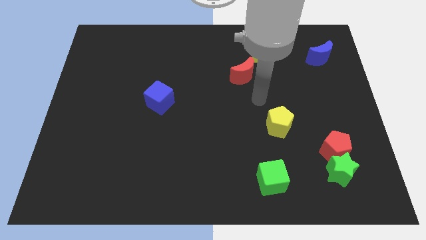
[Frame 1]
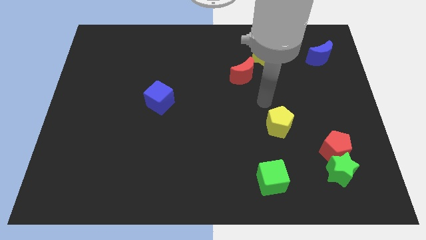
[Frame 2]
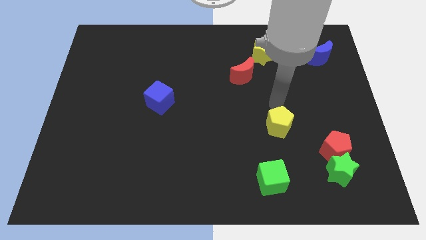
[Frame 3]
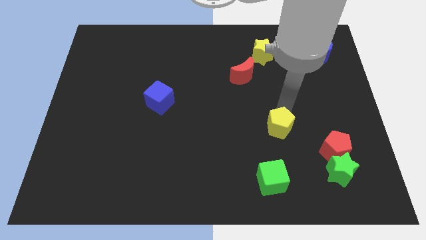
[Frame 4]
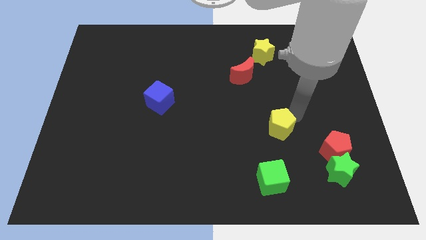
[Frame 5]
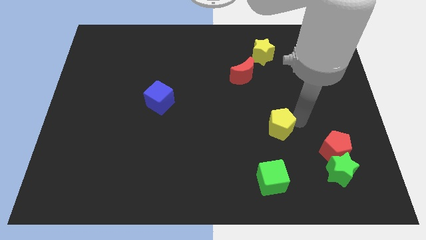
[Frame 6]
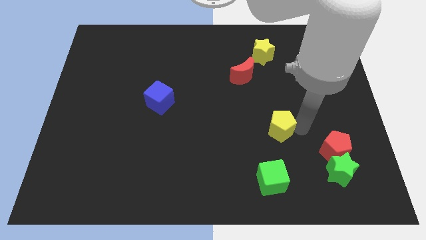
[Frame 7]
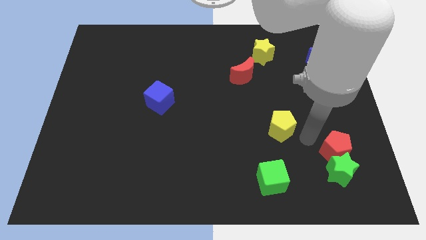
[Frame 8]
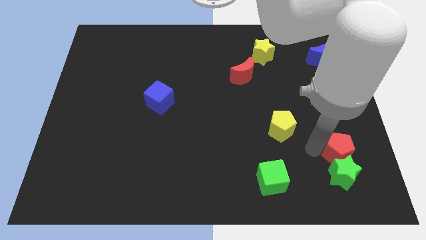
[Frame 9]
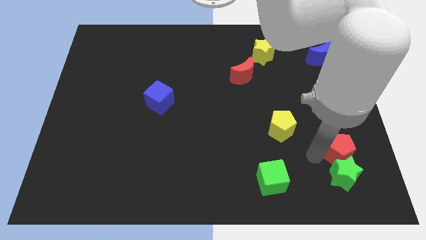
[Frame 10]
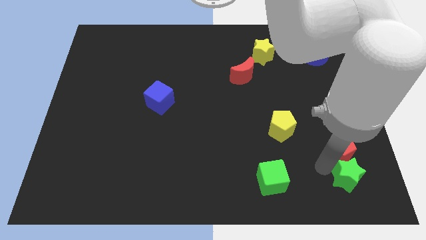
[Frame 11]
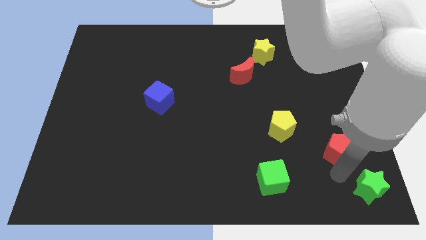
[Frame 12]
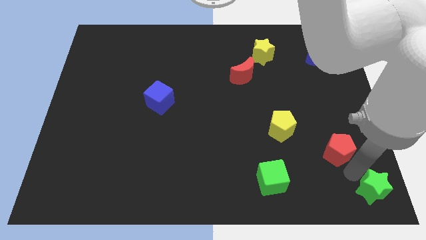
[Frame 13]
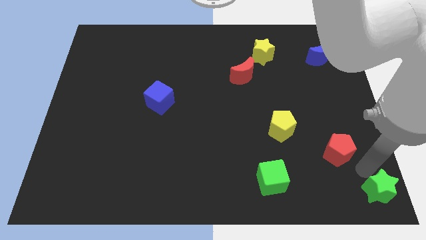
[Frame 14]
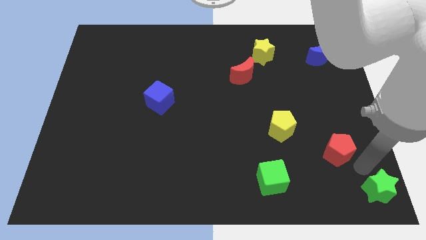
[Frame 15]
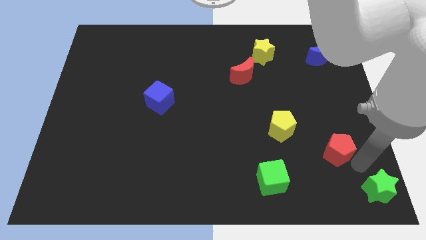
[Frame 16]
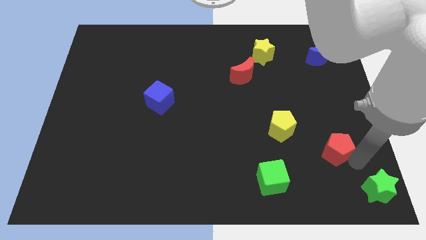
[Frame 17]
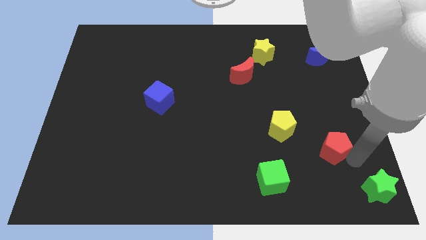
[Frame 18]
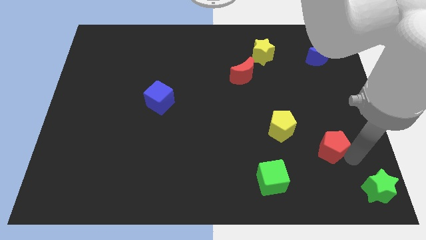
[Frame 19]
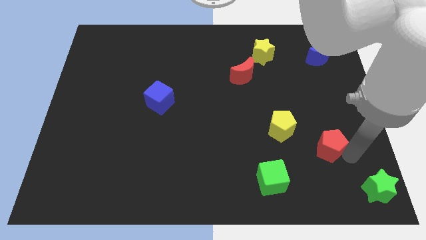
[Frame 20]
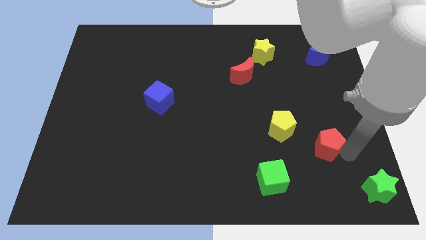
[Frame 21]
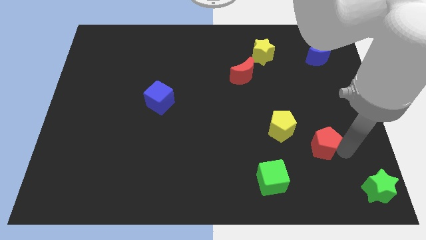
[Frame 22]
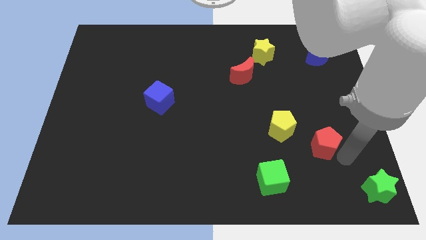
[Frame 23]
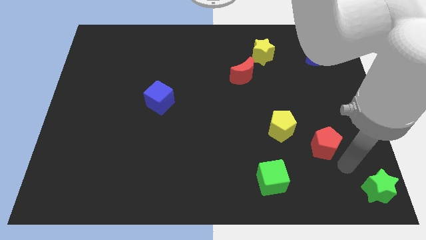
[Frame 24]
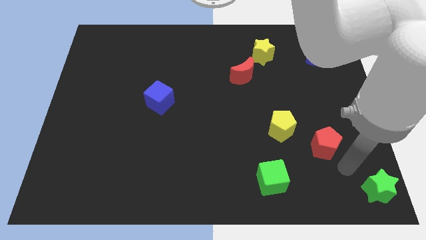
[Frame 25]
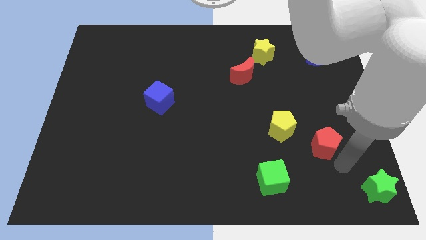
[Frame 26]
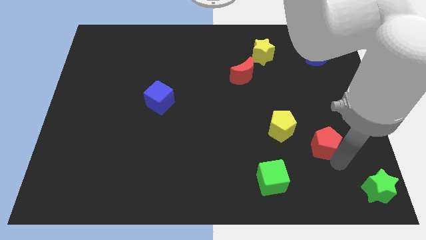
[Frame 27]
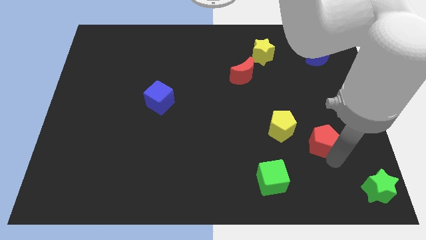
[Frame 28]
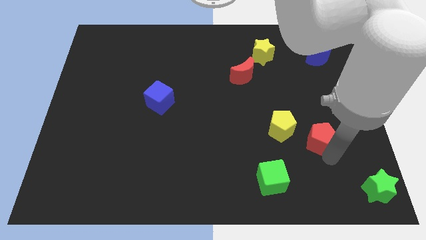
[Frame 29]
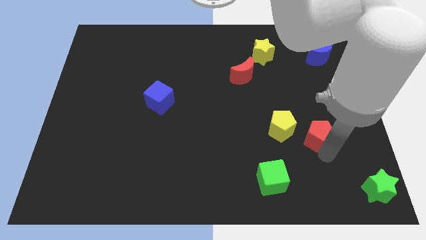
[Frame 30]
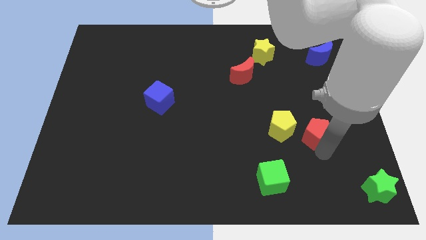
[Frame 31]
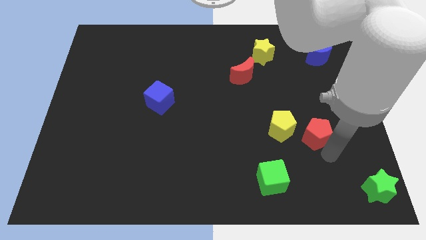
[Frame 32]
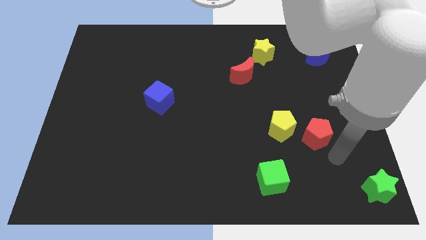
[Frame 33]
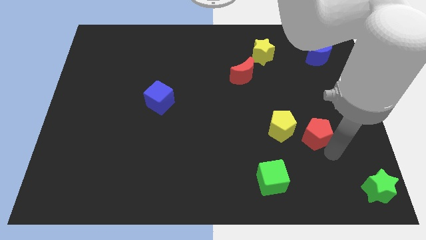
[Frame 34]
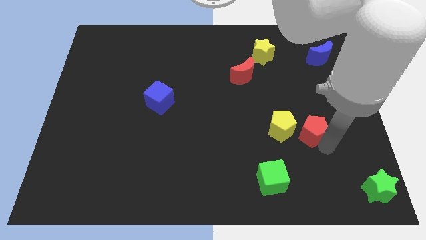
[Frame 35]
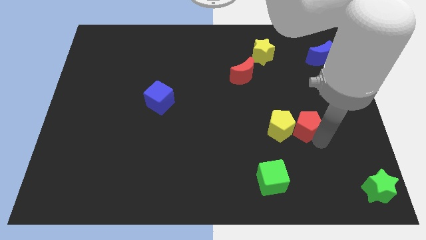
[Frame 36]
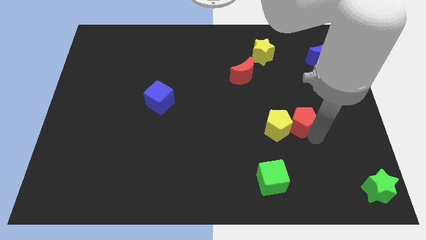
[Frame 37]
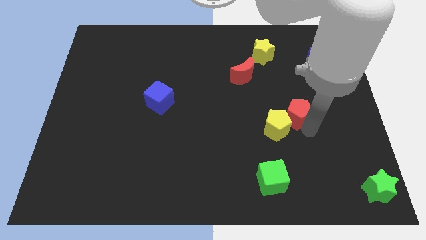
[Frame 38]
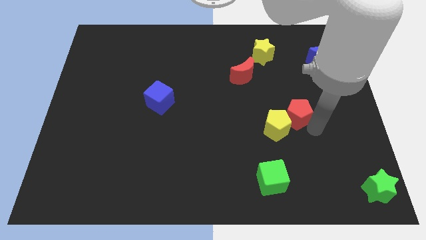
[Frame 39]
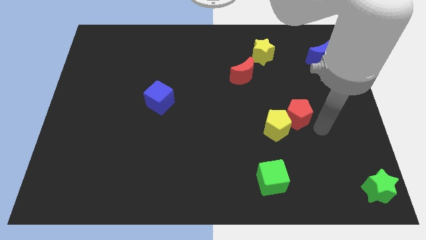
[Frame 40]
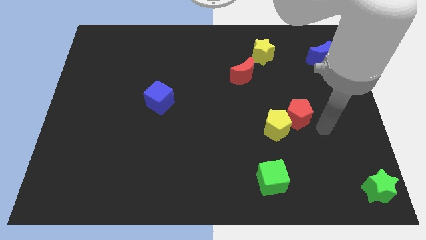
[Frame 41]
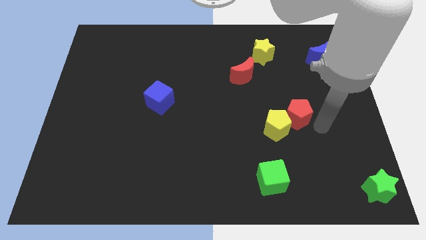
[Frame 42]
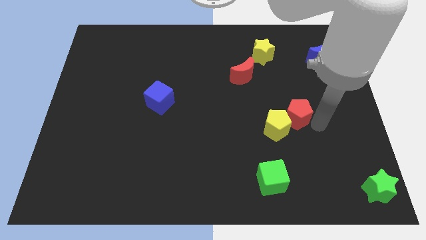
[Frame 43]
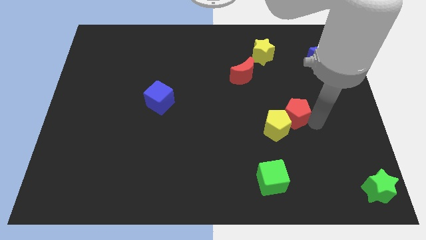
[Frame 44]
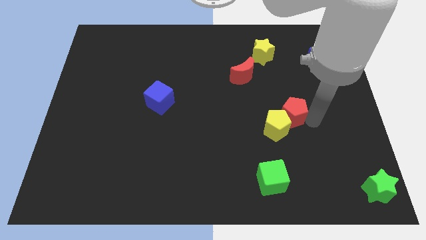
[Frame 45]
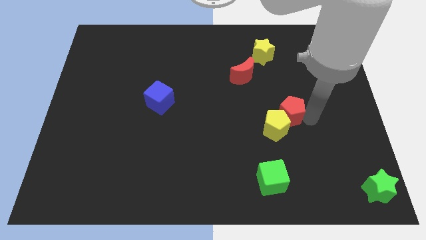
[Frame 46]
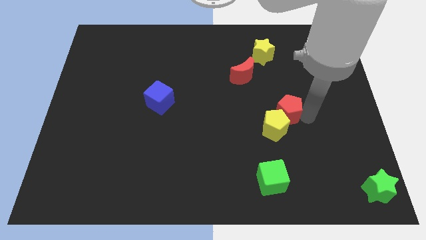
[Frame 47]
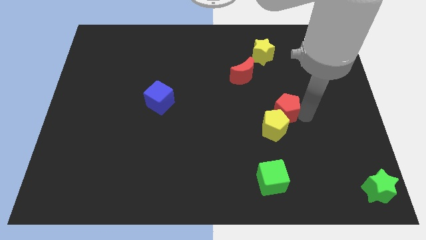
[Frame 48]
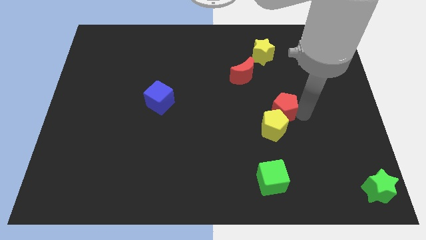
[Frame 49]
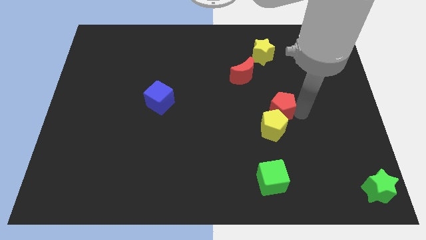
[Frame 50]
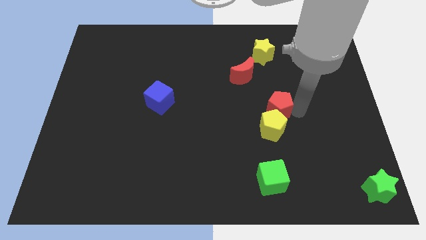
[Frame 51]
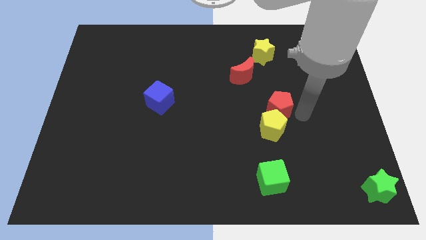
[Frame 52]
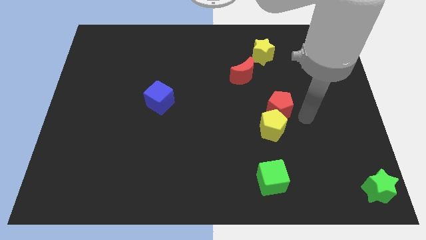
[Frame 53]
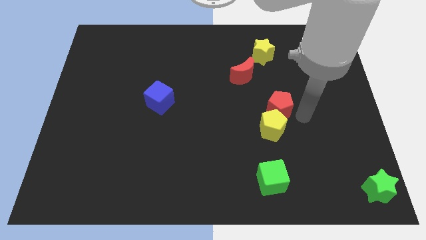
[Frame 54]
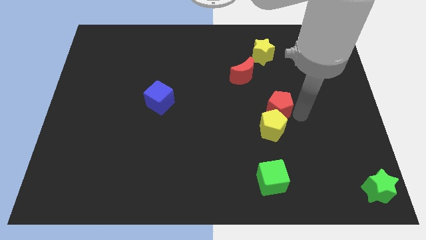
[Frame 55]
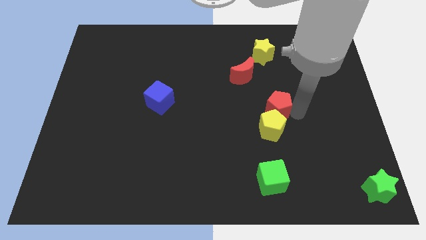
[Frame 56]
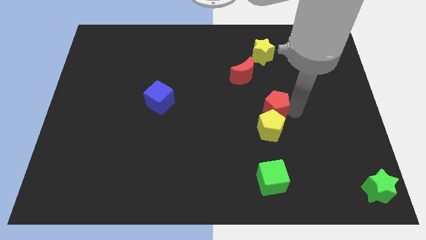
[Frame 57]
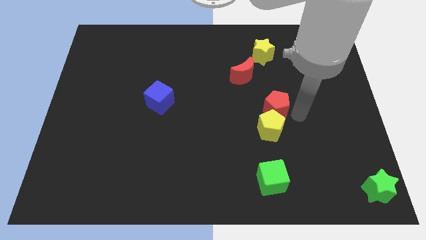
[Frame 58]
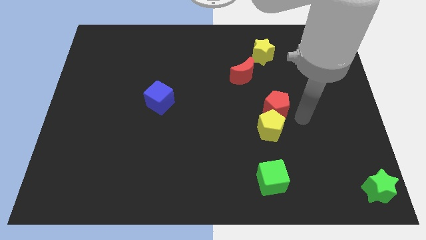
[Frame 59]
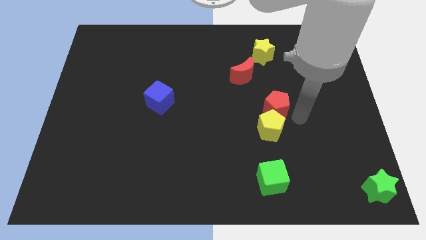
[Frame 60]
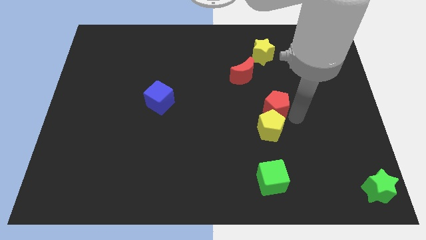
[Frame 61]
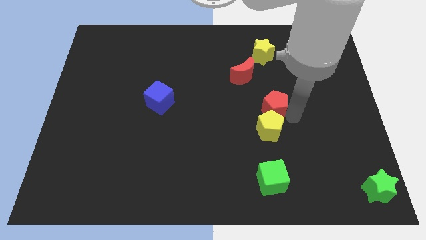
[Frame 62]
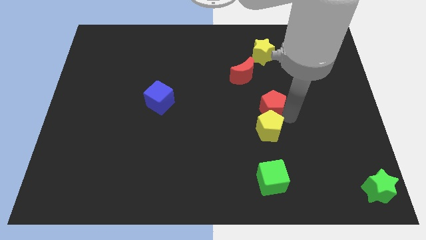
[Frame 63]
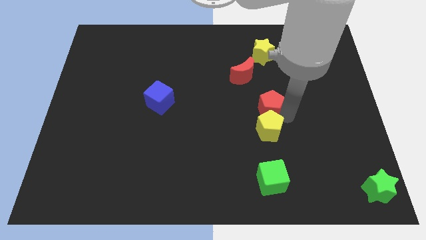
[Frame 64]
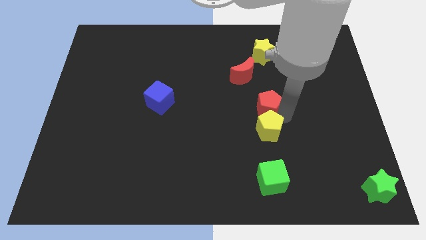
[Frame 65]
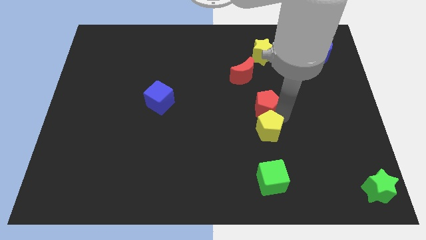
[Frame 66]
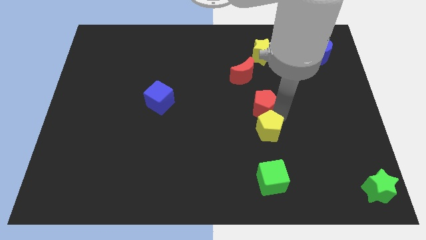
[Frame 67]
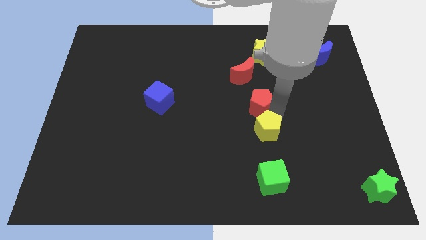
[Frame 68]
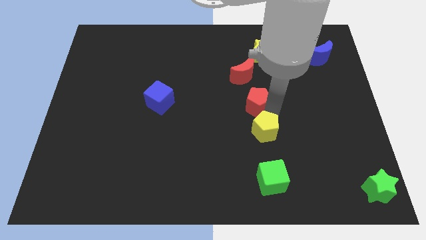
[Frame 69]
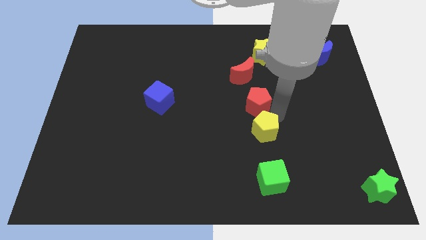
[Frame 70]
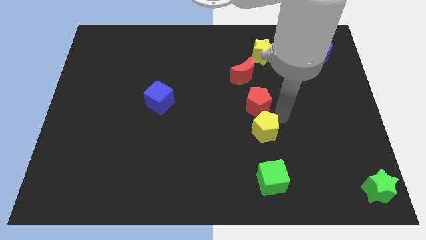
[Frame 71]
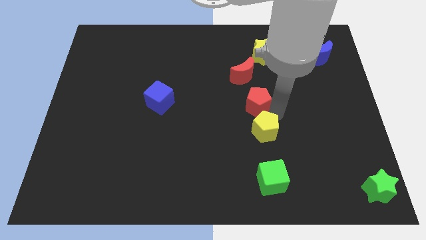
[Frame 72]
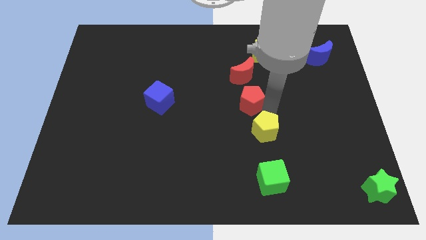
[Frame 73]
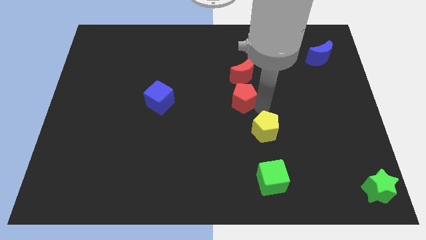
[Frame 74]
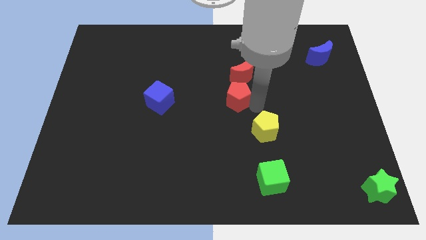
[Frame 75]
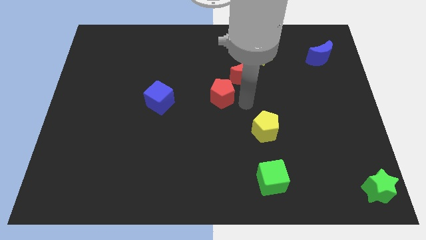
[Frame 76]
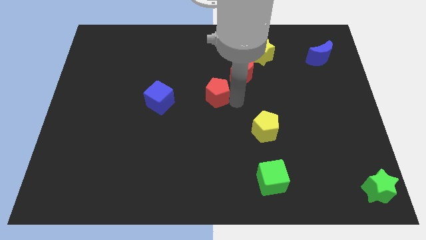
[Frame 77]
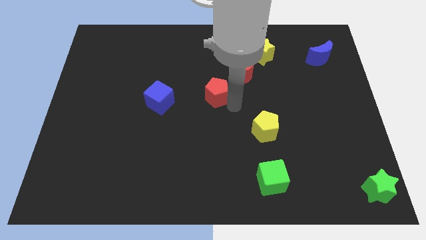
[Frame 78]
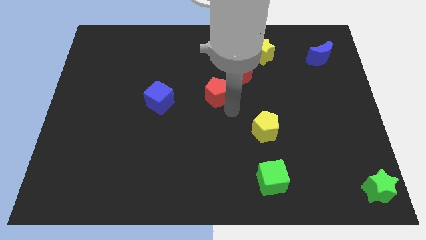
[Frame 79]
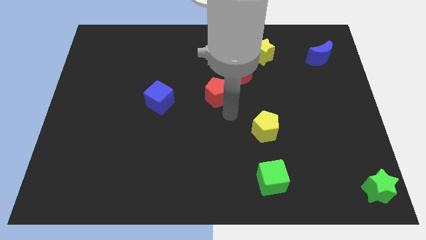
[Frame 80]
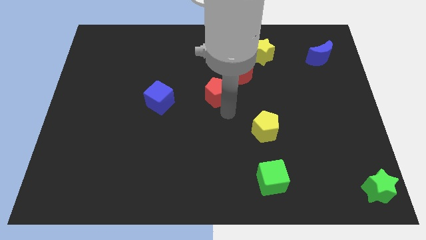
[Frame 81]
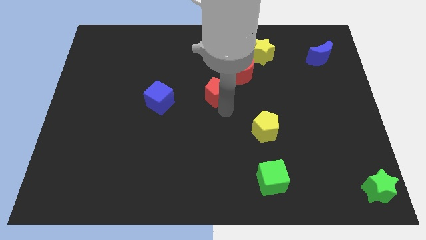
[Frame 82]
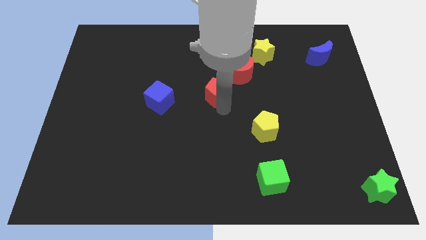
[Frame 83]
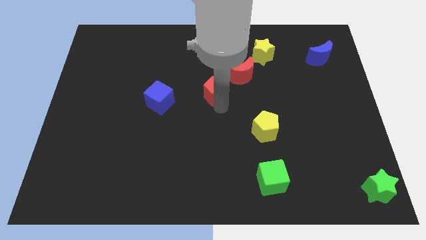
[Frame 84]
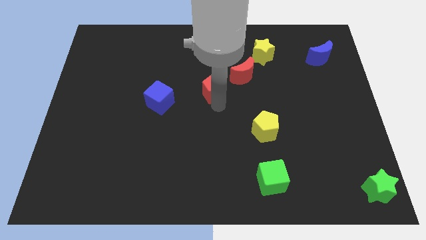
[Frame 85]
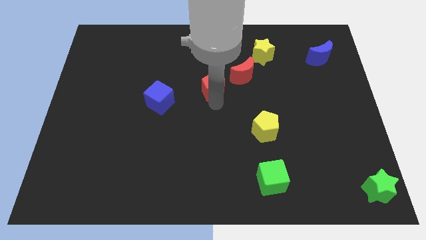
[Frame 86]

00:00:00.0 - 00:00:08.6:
push the red pentagon to the left side of the red moon
